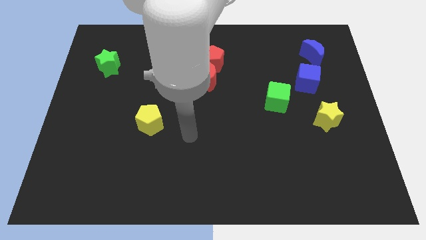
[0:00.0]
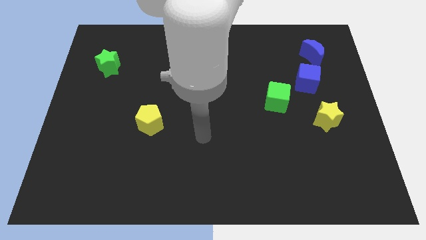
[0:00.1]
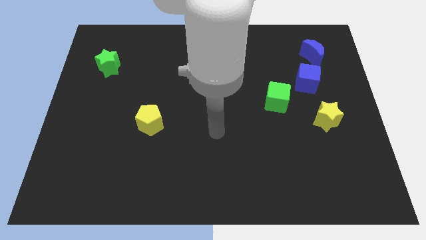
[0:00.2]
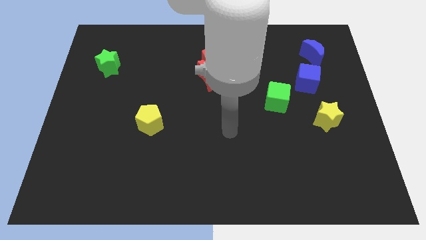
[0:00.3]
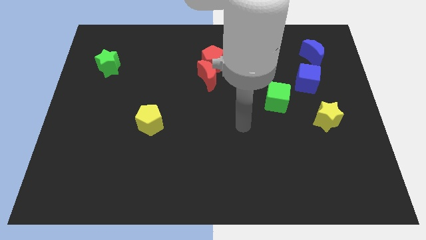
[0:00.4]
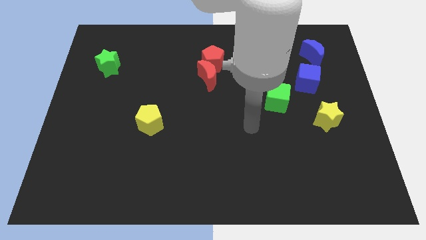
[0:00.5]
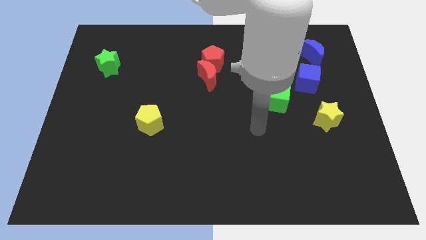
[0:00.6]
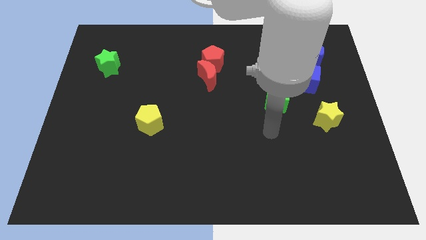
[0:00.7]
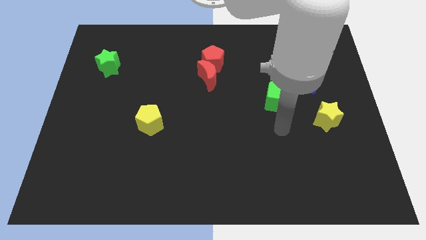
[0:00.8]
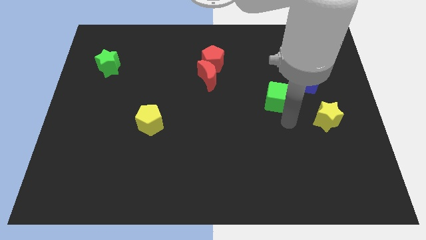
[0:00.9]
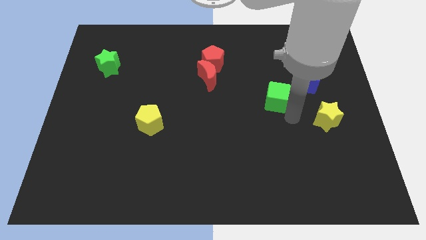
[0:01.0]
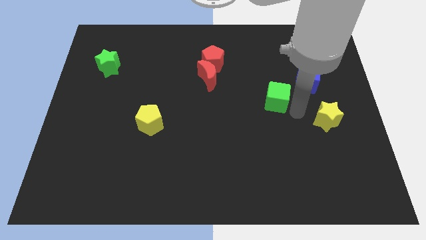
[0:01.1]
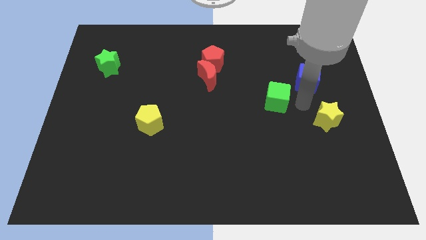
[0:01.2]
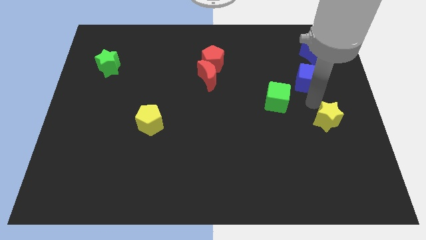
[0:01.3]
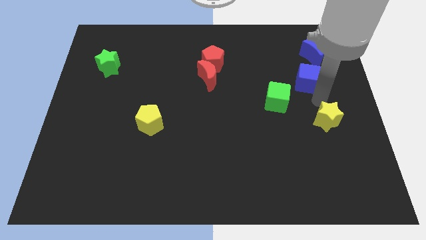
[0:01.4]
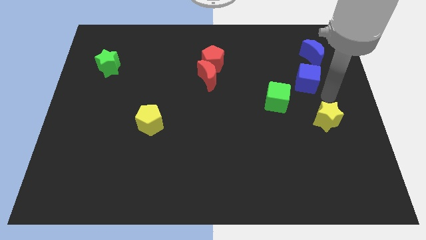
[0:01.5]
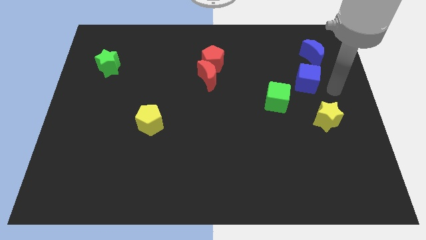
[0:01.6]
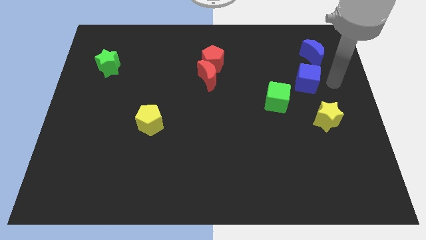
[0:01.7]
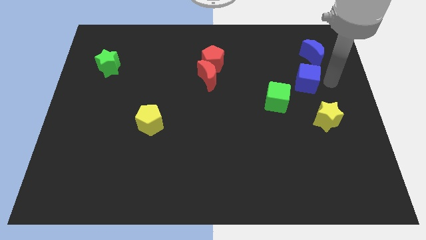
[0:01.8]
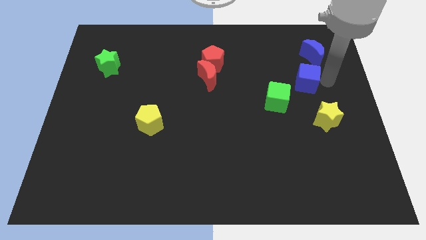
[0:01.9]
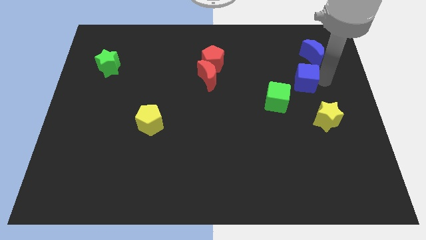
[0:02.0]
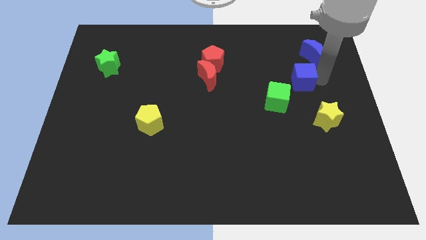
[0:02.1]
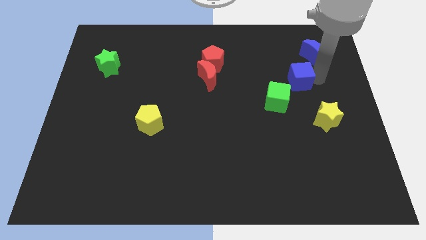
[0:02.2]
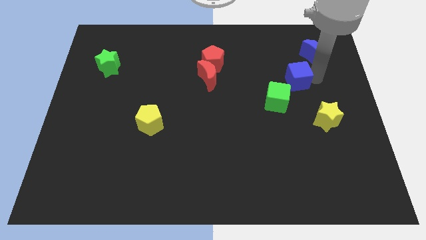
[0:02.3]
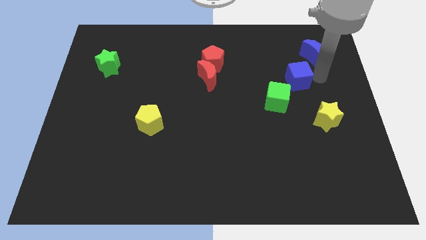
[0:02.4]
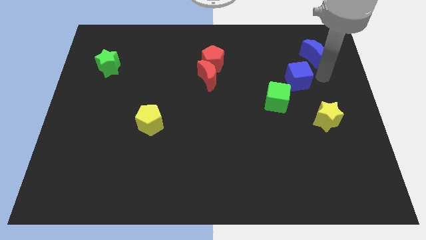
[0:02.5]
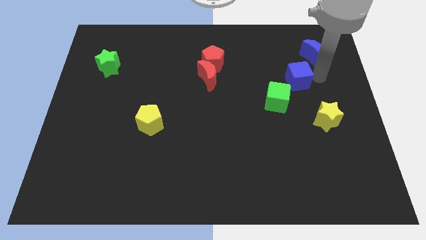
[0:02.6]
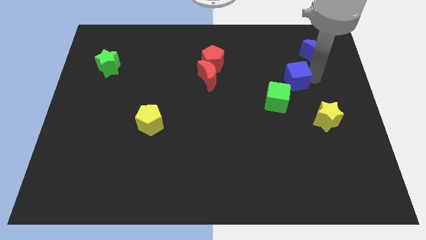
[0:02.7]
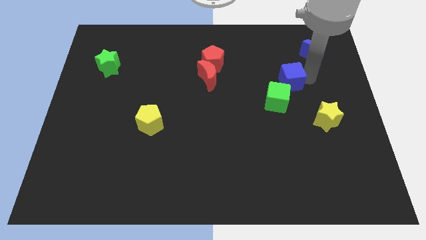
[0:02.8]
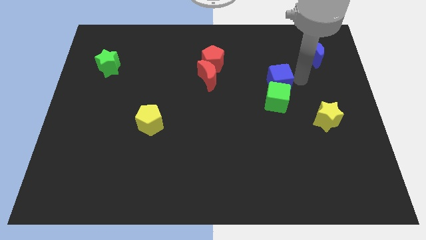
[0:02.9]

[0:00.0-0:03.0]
slightly push the blue cube left

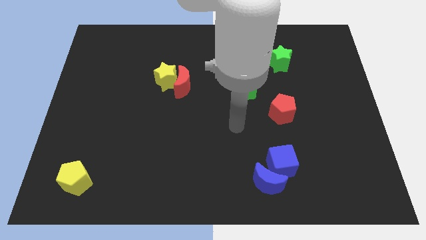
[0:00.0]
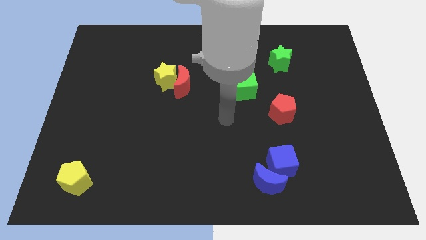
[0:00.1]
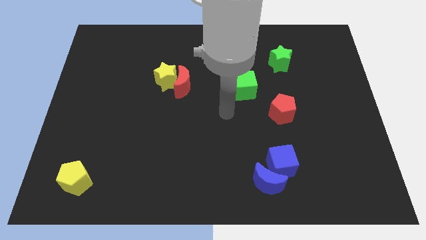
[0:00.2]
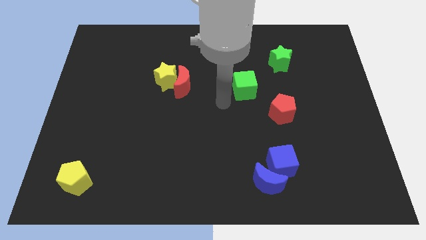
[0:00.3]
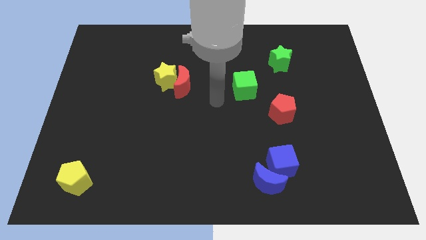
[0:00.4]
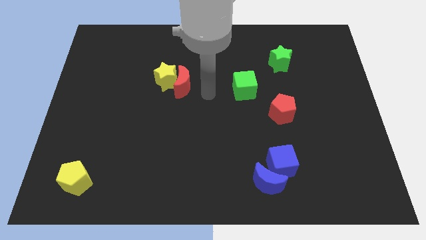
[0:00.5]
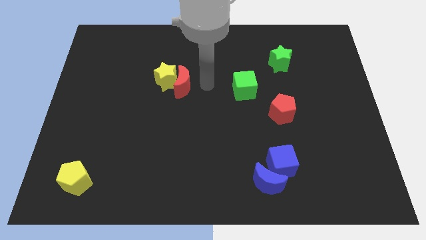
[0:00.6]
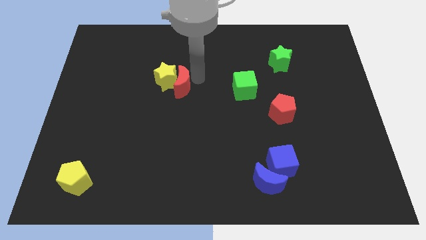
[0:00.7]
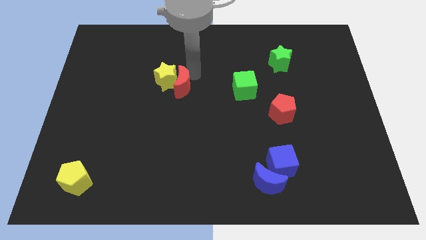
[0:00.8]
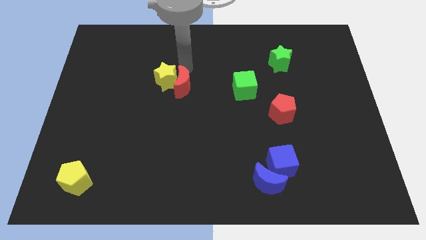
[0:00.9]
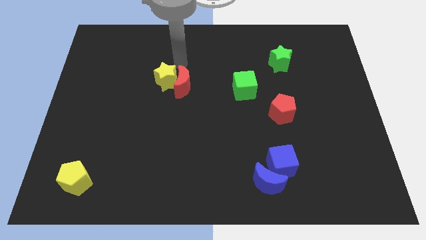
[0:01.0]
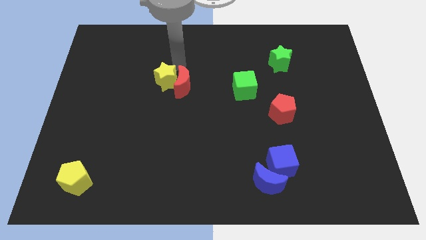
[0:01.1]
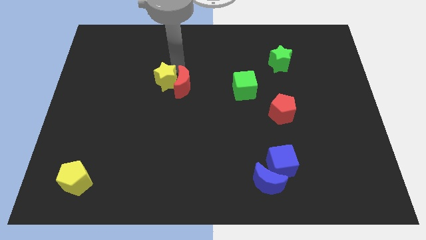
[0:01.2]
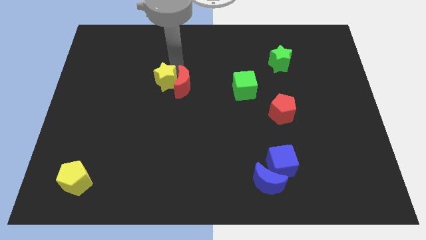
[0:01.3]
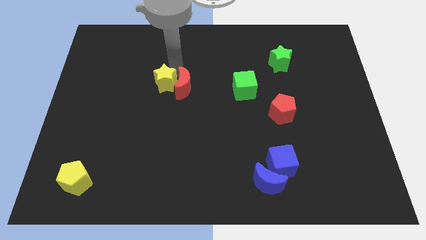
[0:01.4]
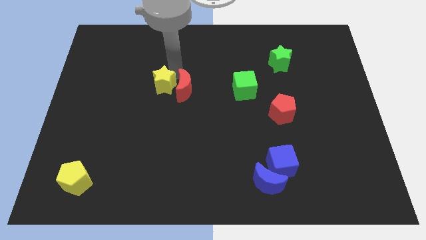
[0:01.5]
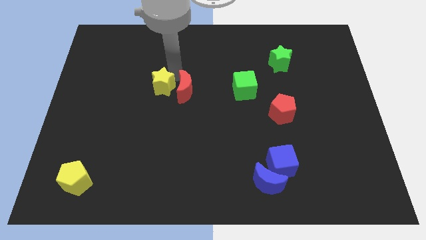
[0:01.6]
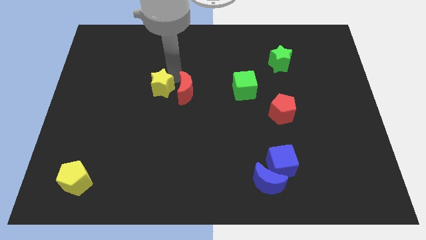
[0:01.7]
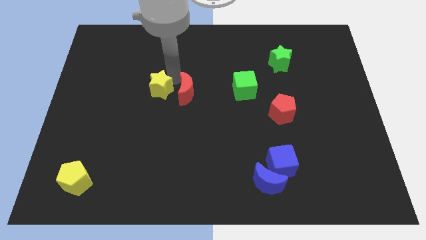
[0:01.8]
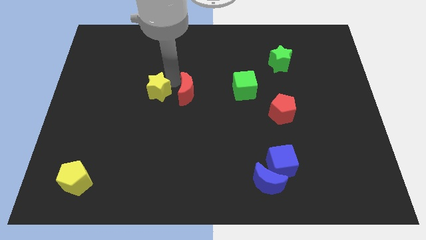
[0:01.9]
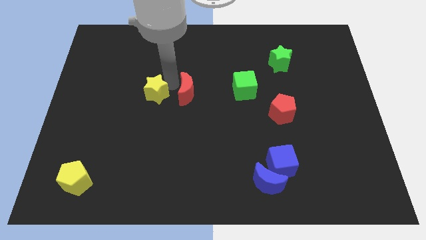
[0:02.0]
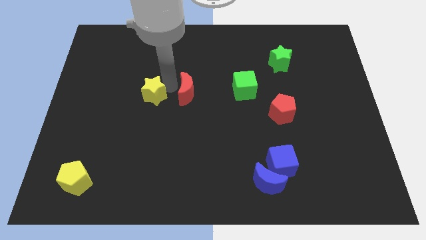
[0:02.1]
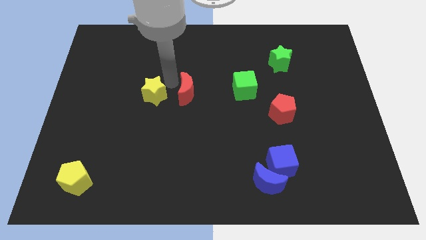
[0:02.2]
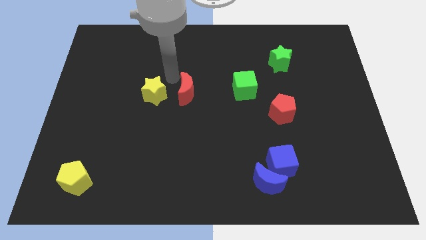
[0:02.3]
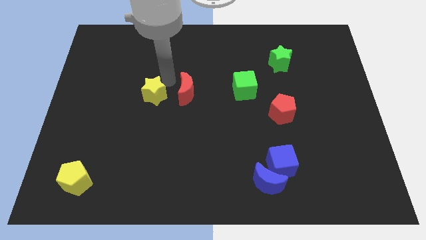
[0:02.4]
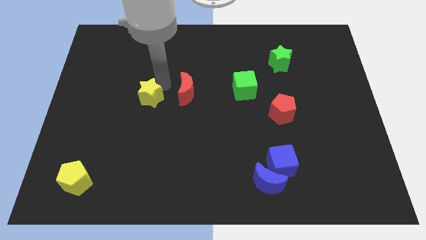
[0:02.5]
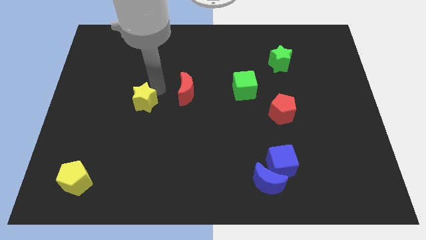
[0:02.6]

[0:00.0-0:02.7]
slide the yellow star down and left a little

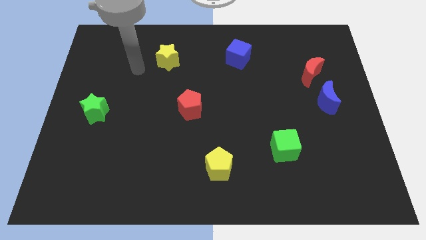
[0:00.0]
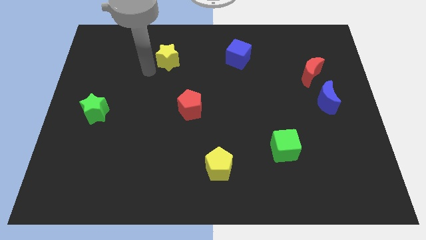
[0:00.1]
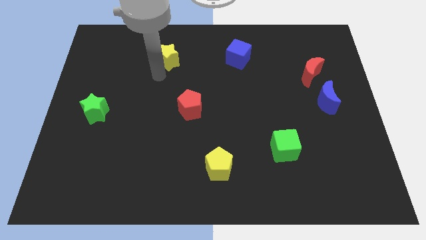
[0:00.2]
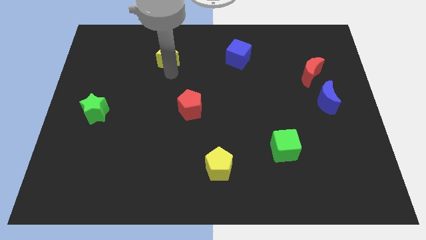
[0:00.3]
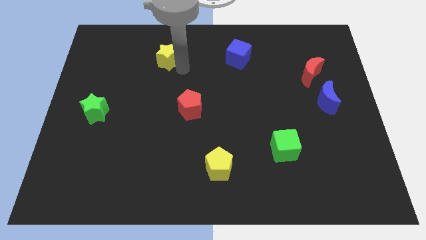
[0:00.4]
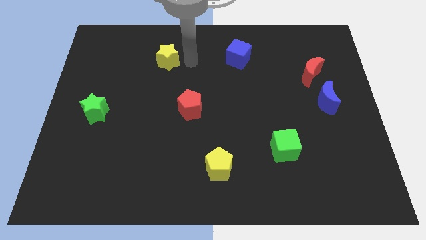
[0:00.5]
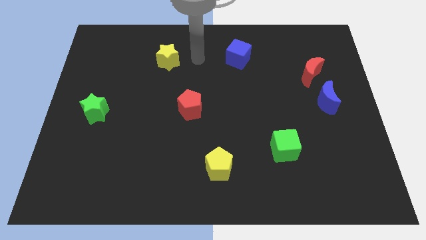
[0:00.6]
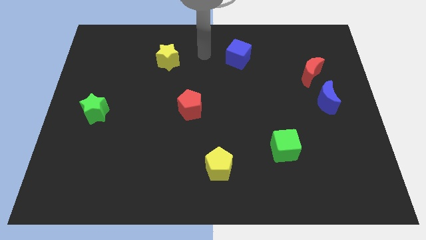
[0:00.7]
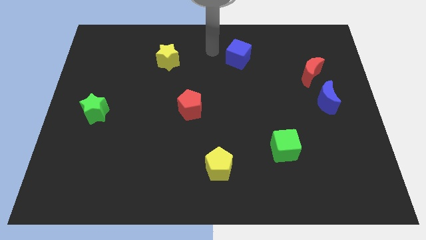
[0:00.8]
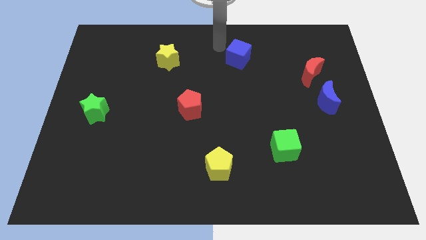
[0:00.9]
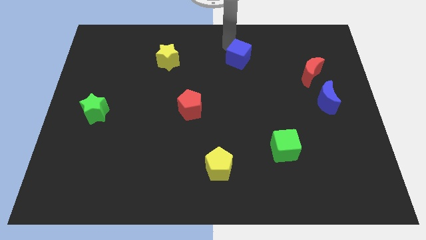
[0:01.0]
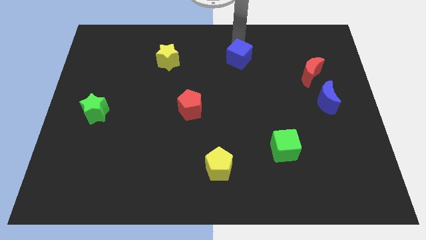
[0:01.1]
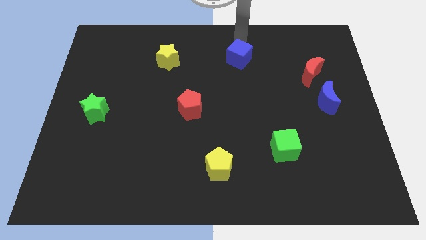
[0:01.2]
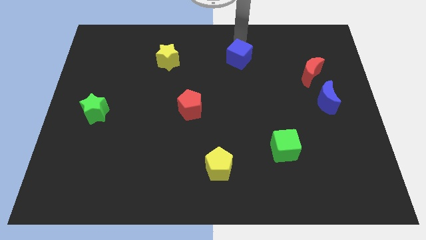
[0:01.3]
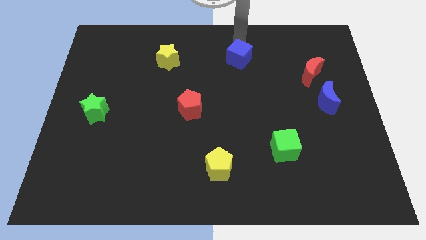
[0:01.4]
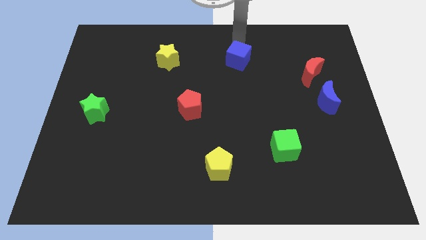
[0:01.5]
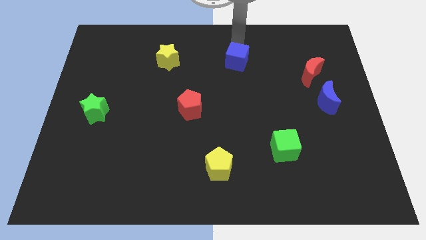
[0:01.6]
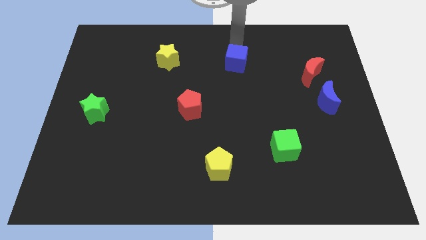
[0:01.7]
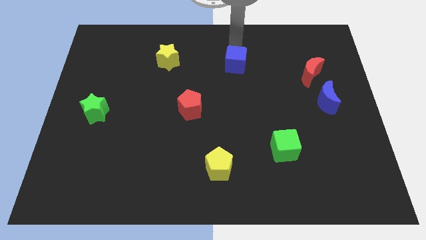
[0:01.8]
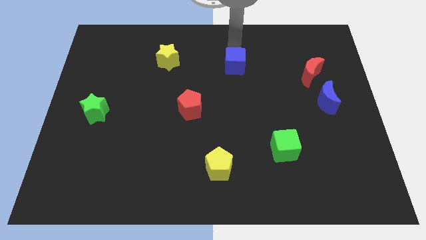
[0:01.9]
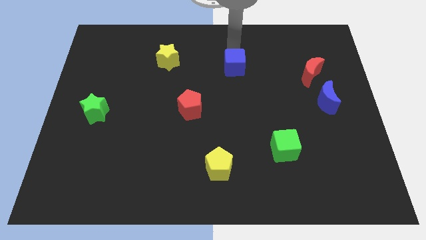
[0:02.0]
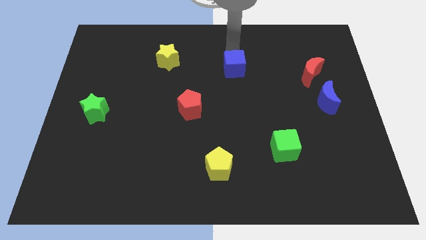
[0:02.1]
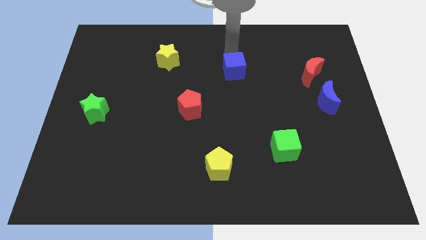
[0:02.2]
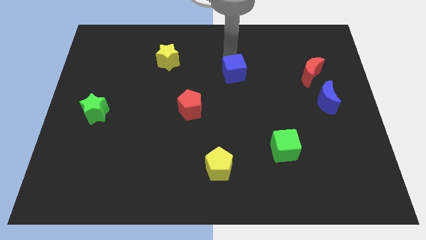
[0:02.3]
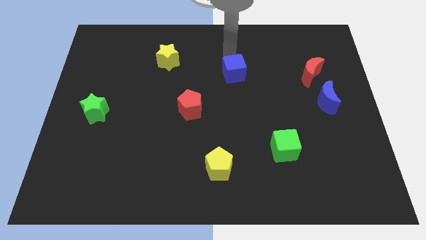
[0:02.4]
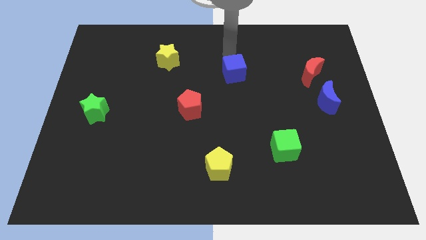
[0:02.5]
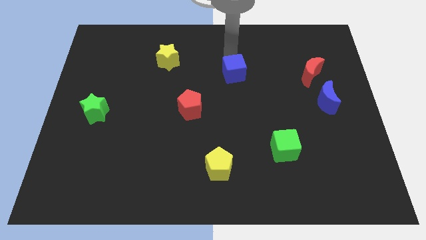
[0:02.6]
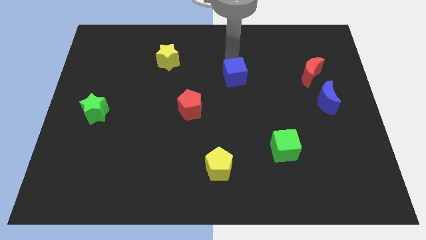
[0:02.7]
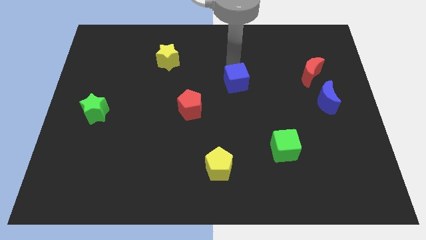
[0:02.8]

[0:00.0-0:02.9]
slightly move the blue cube down
